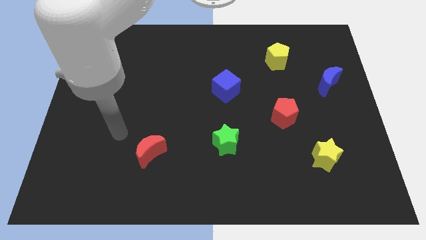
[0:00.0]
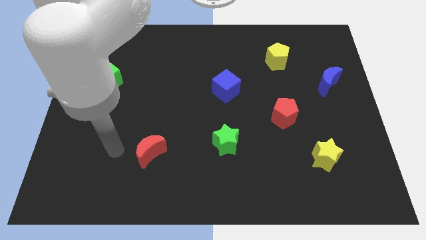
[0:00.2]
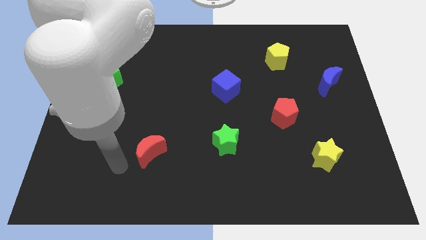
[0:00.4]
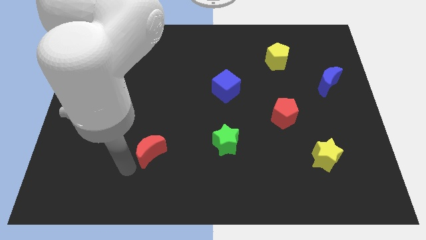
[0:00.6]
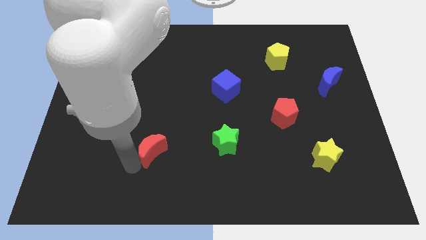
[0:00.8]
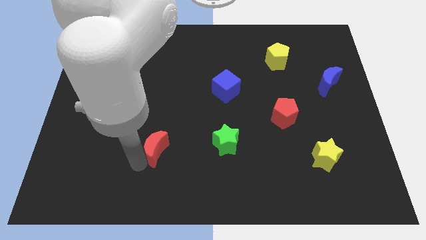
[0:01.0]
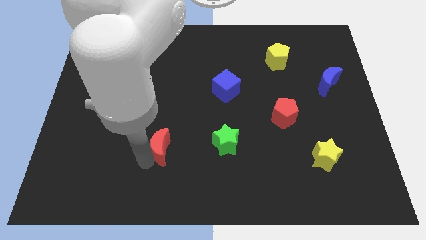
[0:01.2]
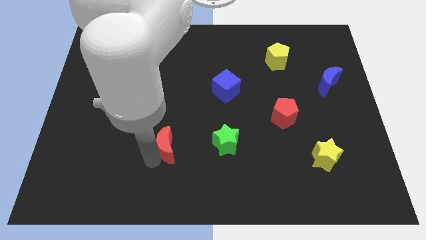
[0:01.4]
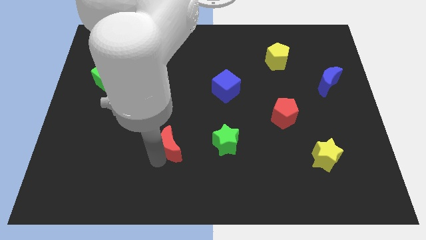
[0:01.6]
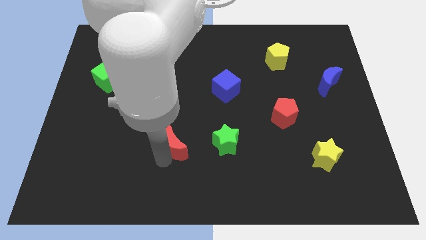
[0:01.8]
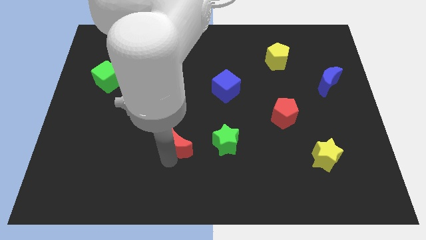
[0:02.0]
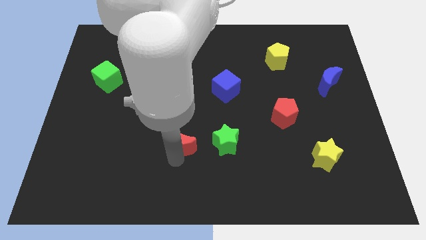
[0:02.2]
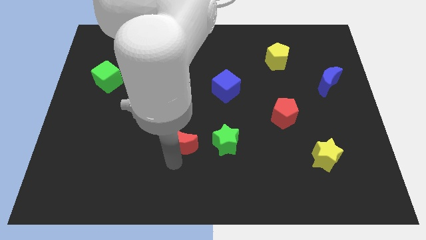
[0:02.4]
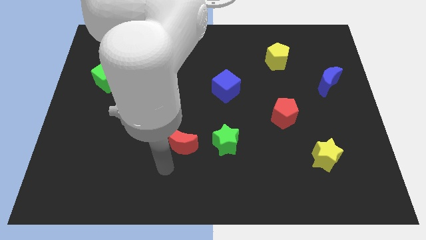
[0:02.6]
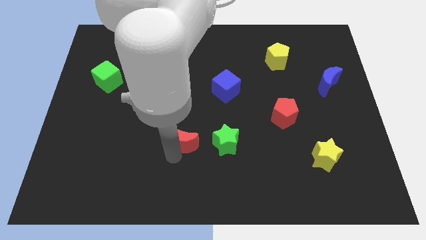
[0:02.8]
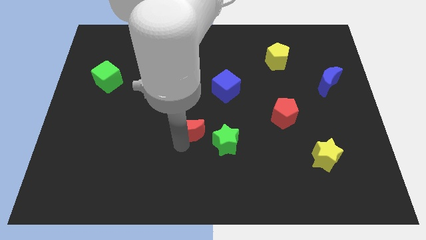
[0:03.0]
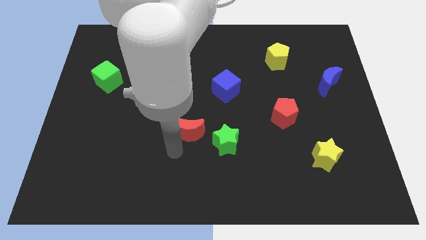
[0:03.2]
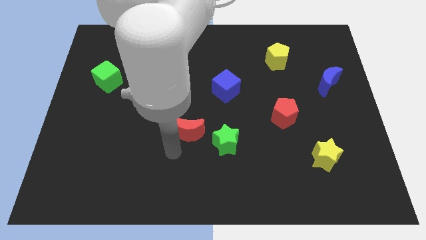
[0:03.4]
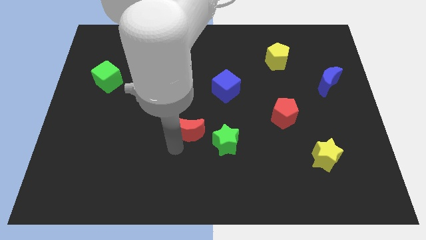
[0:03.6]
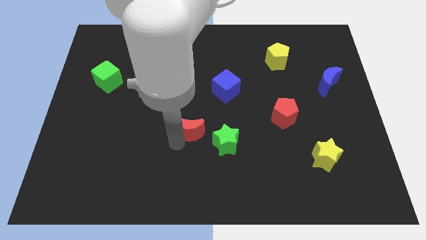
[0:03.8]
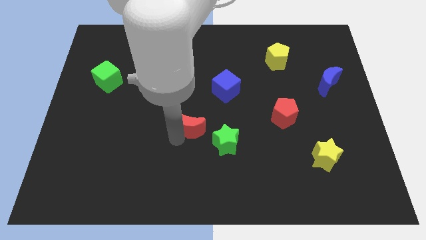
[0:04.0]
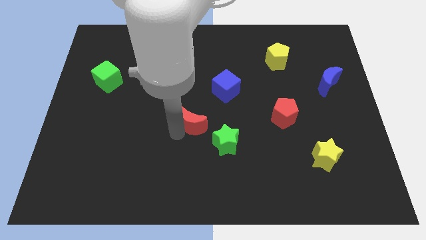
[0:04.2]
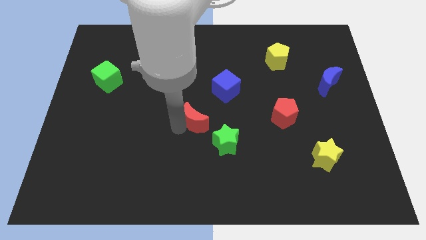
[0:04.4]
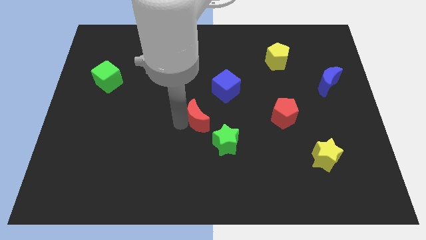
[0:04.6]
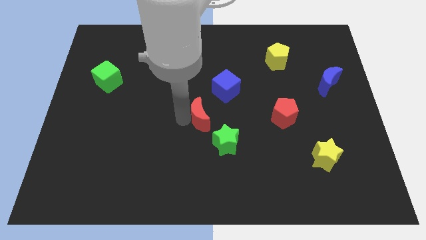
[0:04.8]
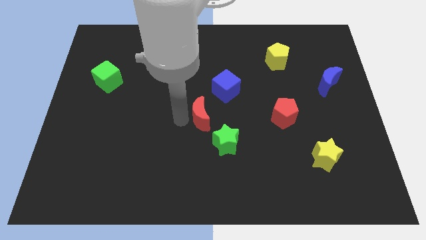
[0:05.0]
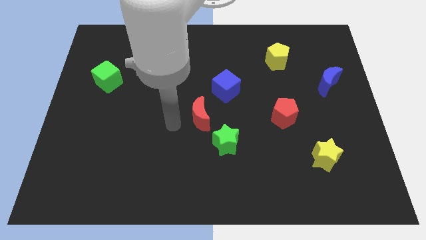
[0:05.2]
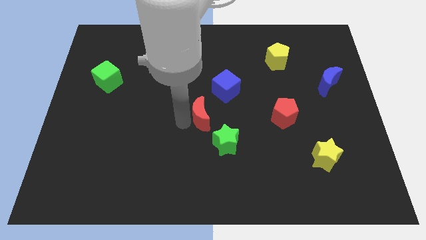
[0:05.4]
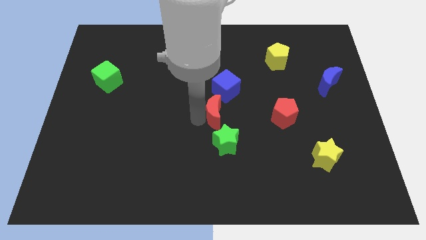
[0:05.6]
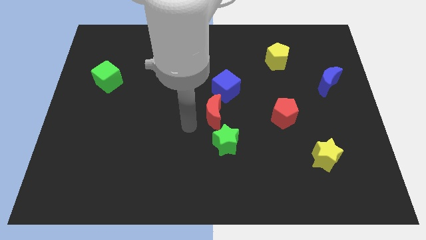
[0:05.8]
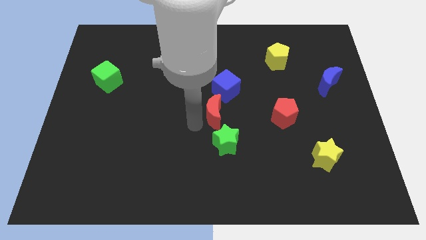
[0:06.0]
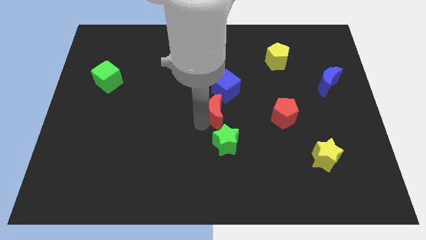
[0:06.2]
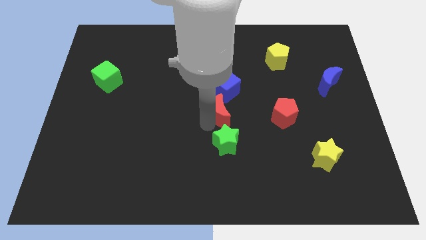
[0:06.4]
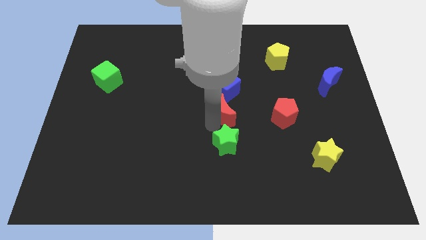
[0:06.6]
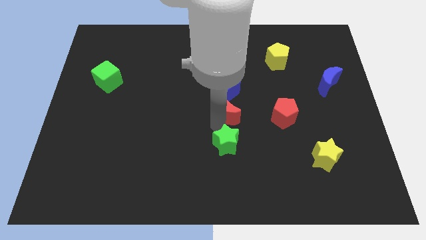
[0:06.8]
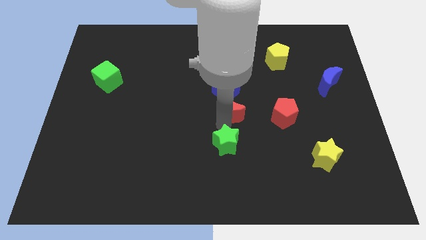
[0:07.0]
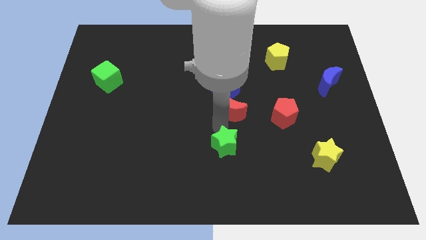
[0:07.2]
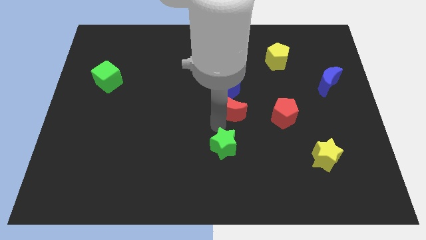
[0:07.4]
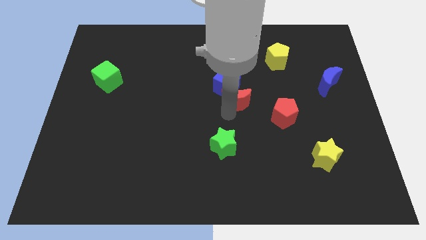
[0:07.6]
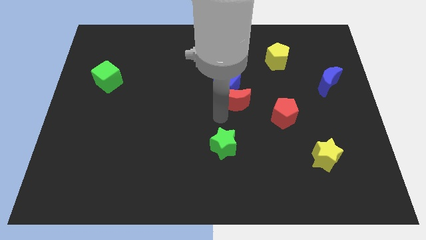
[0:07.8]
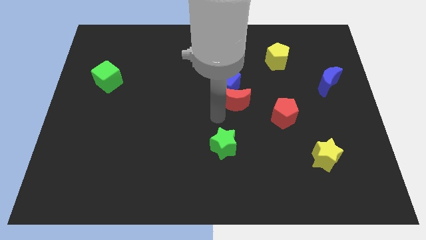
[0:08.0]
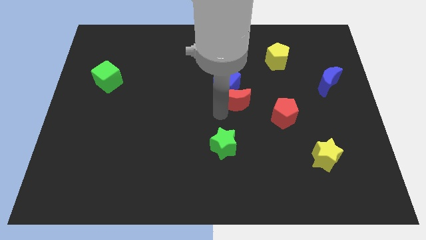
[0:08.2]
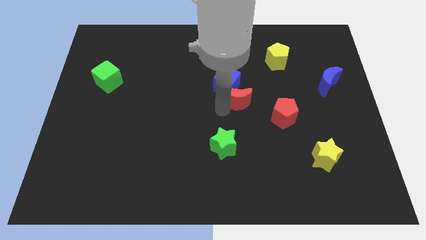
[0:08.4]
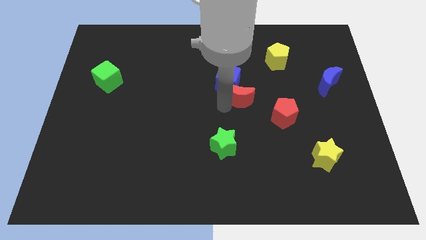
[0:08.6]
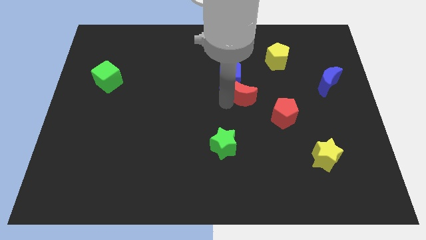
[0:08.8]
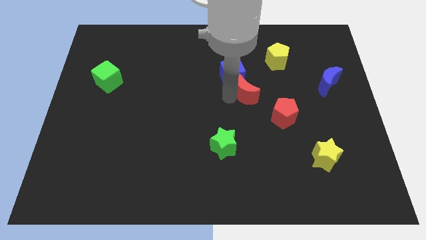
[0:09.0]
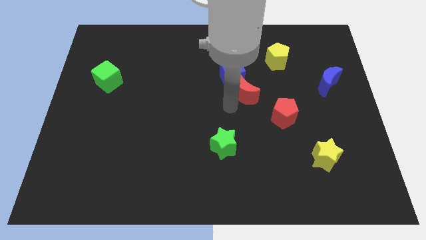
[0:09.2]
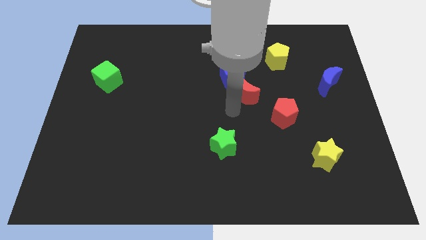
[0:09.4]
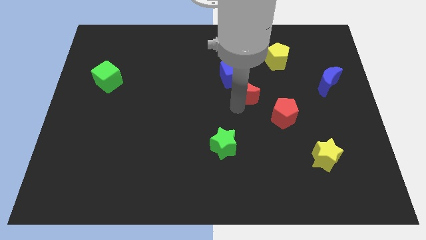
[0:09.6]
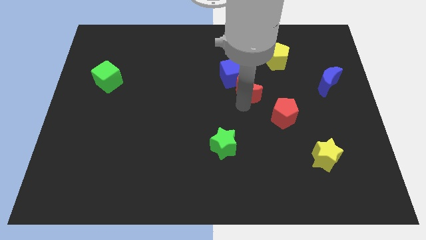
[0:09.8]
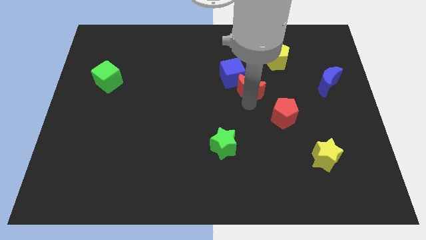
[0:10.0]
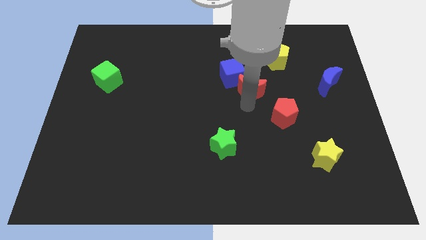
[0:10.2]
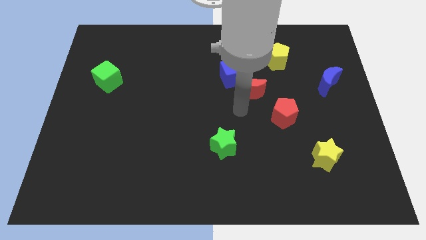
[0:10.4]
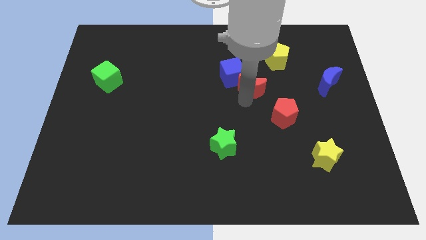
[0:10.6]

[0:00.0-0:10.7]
push the red moon diagonally down and to the left of the yellow pentagon

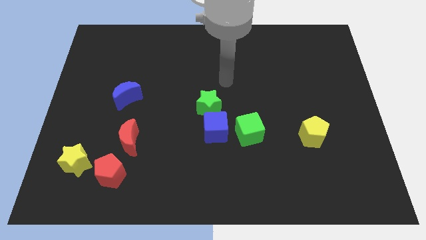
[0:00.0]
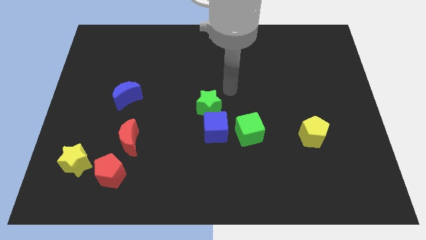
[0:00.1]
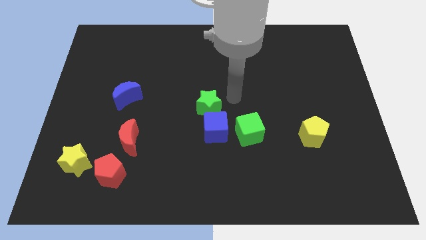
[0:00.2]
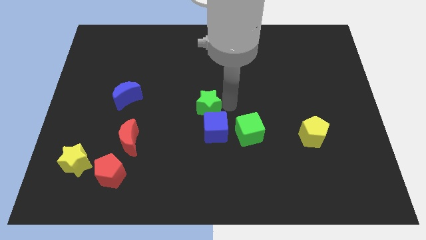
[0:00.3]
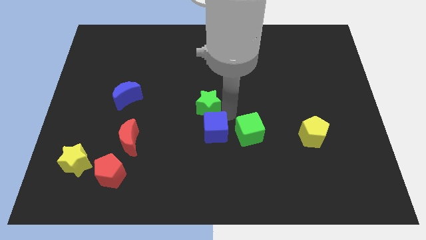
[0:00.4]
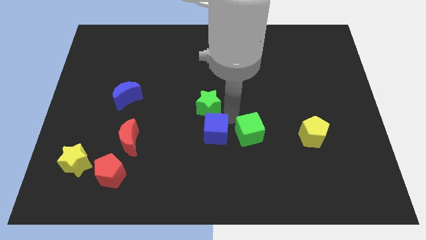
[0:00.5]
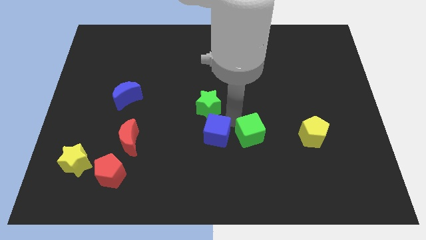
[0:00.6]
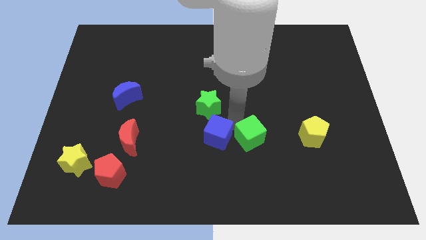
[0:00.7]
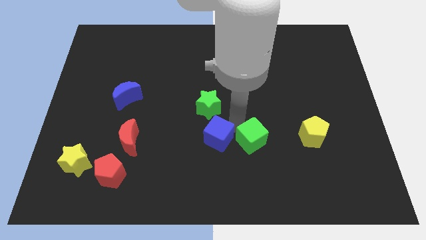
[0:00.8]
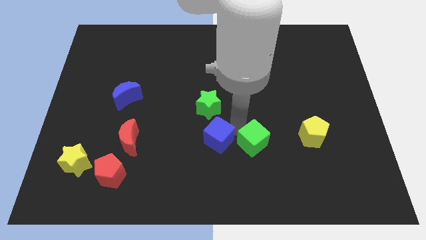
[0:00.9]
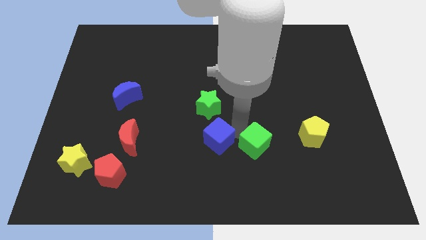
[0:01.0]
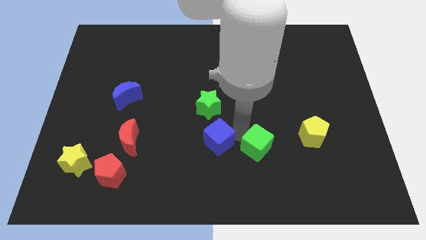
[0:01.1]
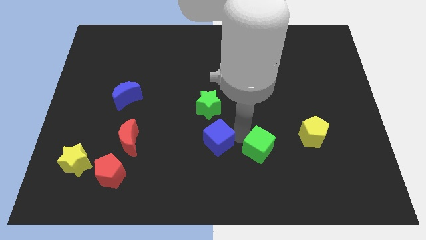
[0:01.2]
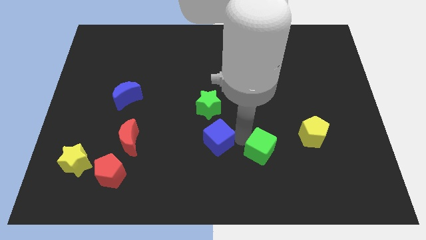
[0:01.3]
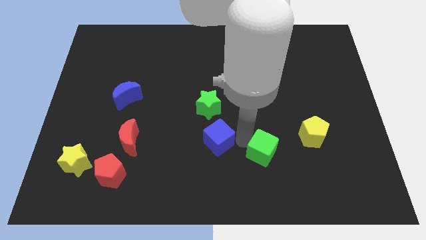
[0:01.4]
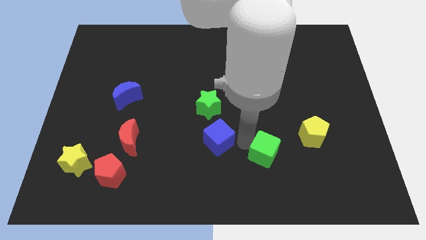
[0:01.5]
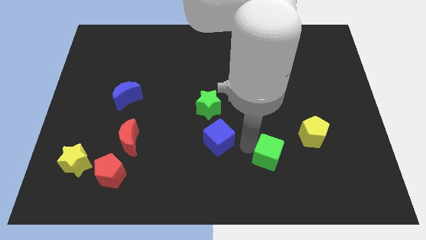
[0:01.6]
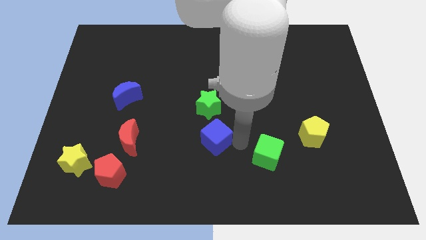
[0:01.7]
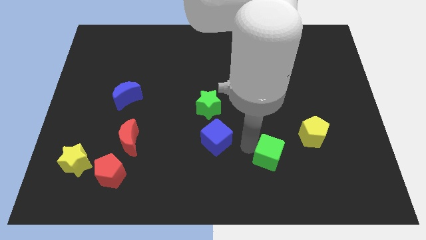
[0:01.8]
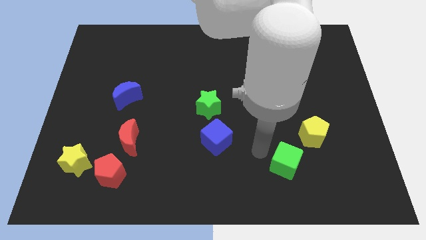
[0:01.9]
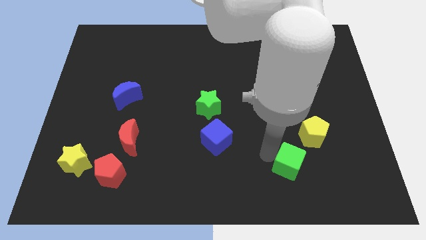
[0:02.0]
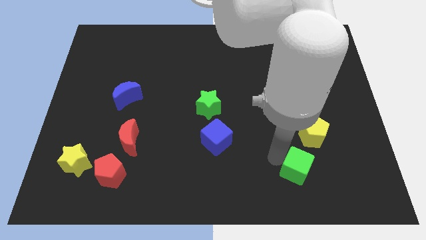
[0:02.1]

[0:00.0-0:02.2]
push the green cube to the bottom of the yellow pentagon

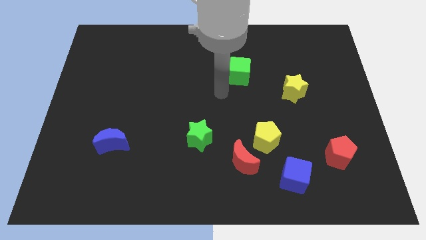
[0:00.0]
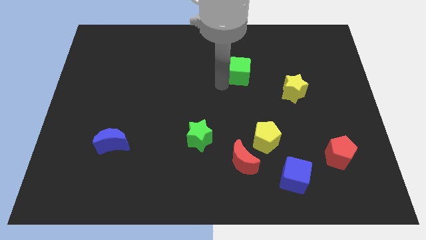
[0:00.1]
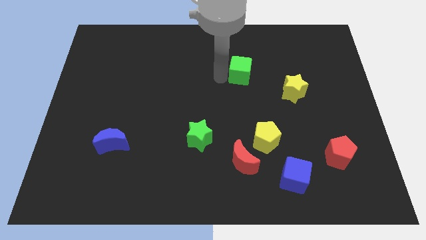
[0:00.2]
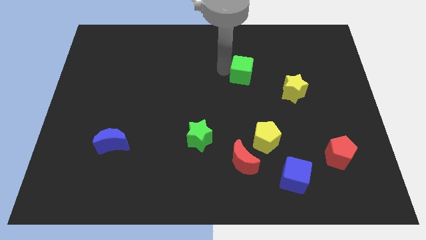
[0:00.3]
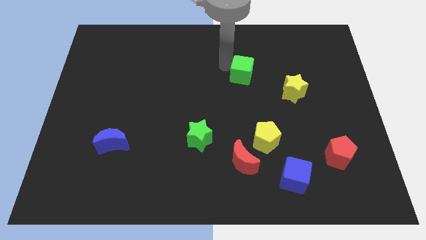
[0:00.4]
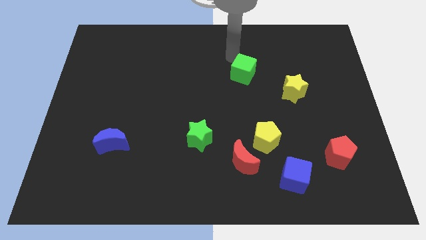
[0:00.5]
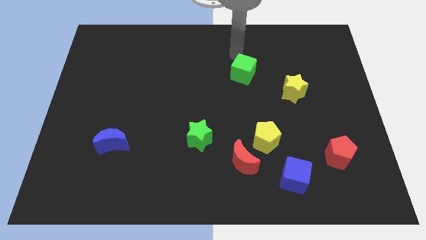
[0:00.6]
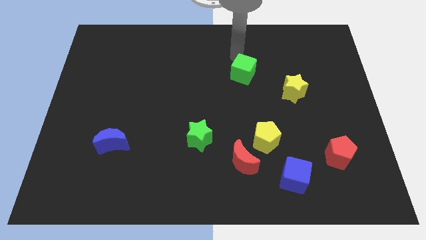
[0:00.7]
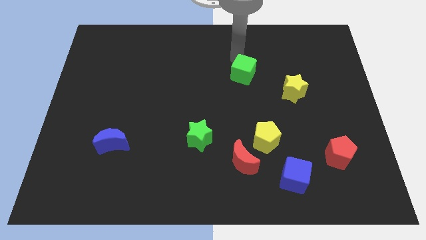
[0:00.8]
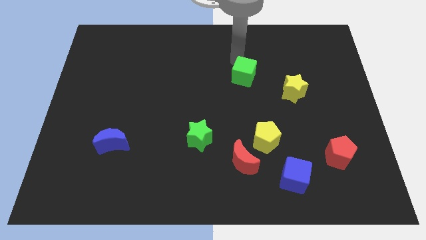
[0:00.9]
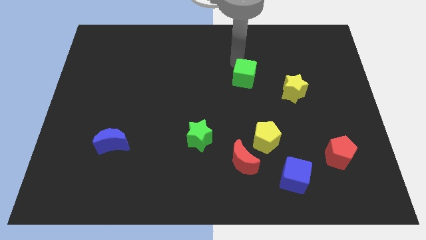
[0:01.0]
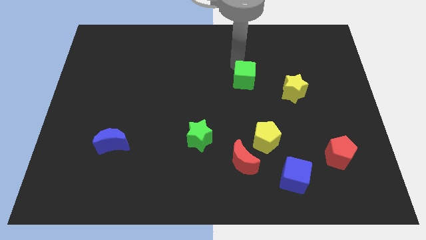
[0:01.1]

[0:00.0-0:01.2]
slide the green cube to the left of the yellow star
